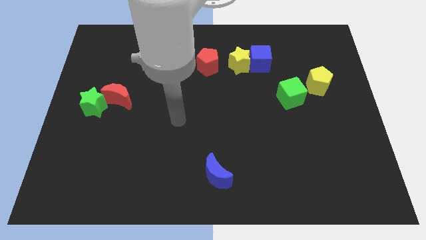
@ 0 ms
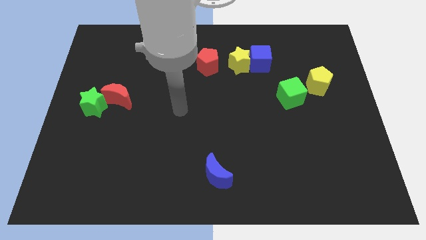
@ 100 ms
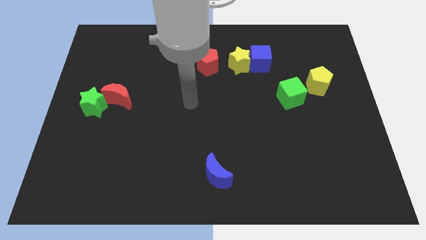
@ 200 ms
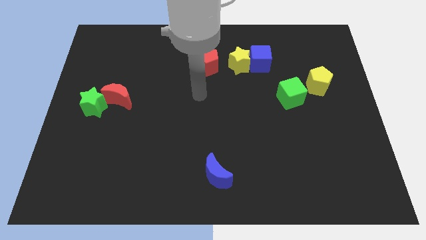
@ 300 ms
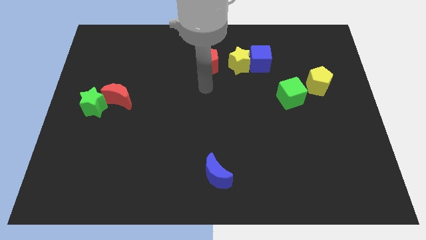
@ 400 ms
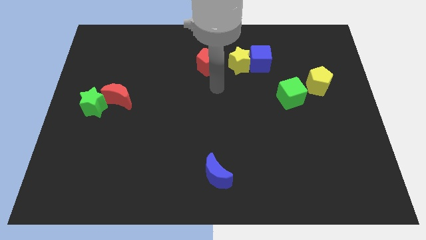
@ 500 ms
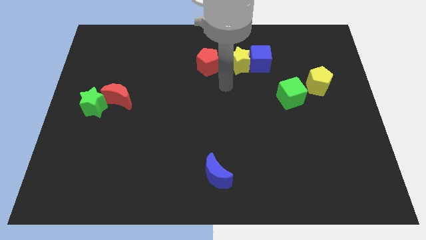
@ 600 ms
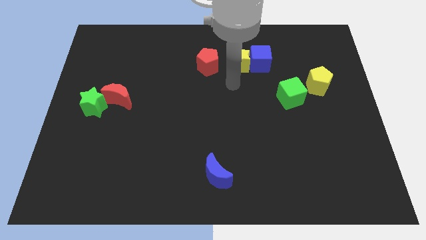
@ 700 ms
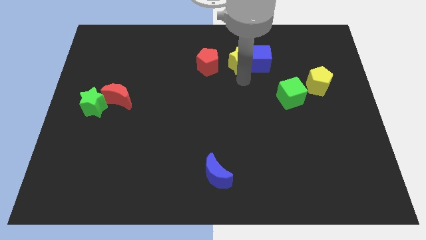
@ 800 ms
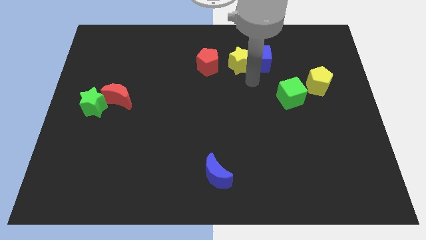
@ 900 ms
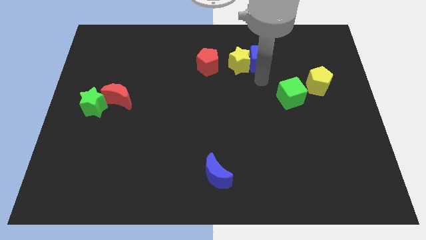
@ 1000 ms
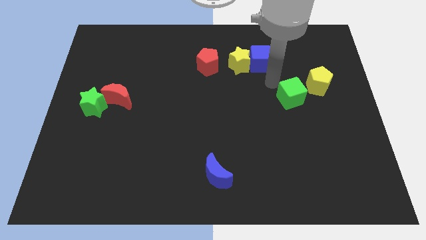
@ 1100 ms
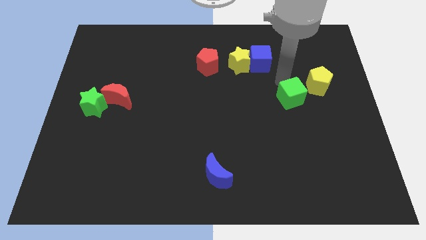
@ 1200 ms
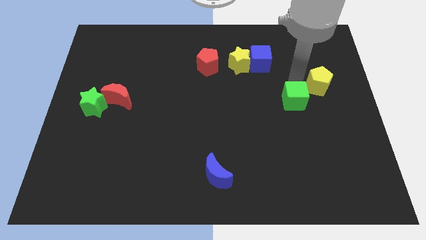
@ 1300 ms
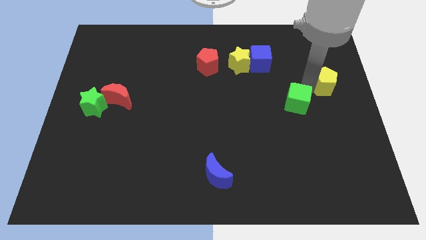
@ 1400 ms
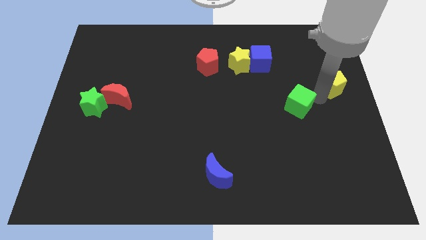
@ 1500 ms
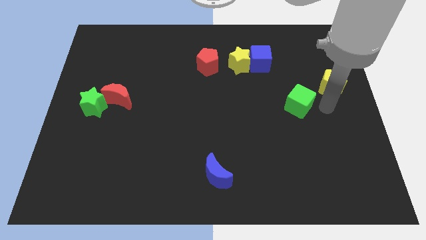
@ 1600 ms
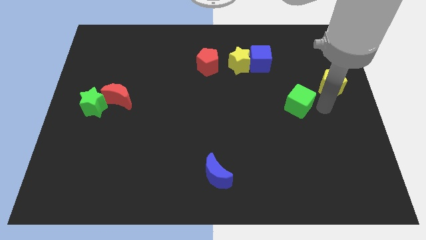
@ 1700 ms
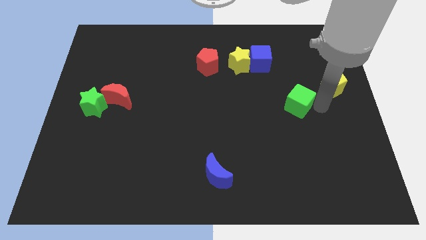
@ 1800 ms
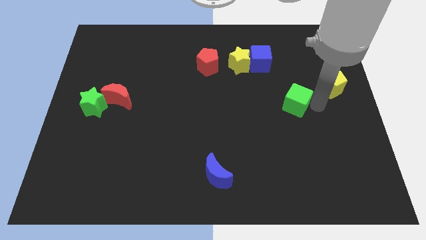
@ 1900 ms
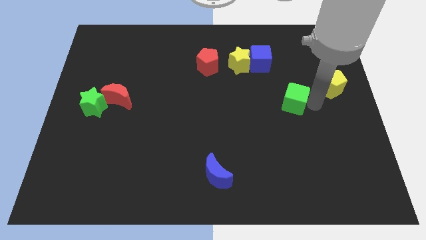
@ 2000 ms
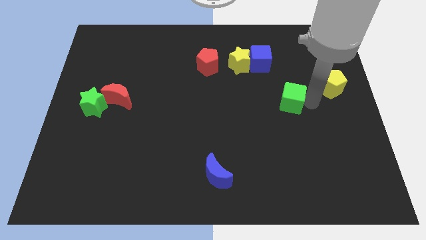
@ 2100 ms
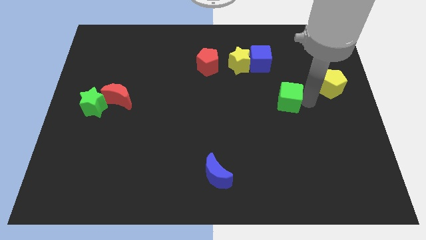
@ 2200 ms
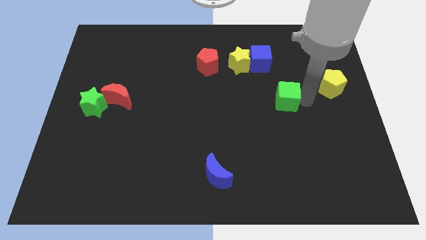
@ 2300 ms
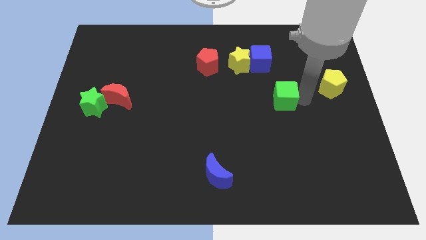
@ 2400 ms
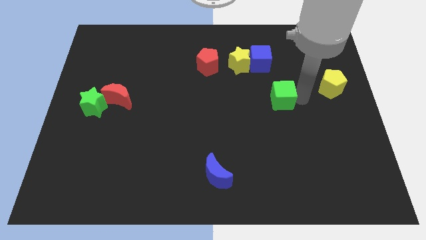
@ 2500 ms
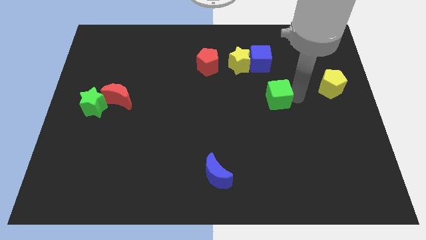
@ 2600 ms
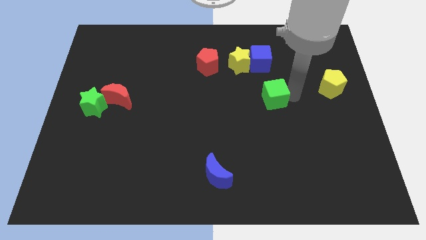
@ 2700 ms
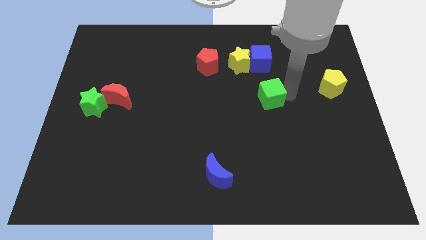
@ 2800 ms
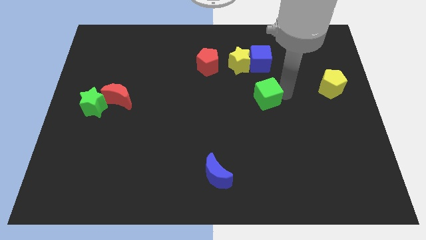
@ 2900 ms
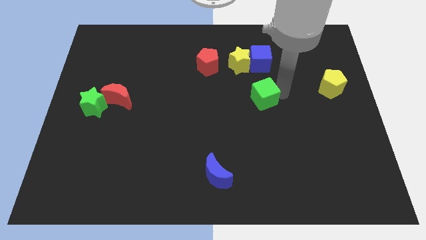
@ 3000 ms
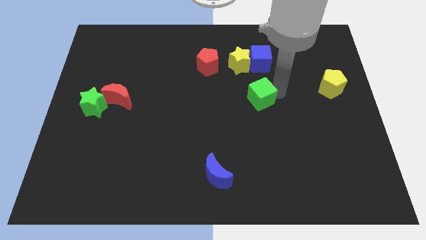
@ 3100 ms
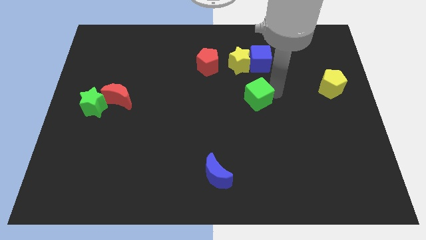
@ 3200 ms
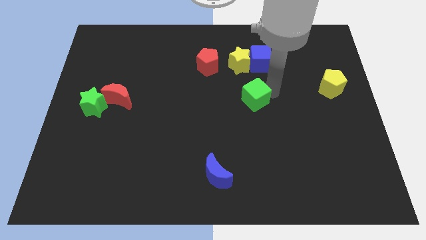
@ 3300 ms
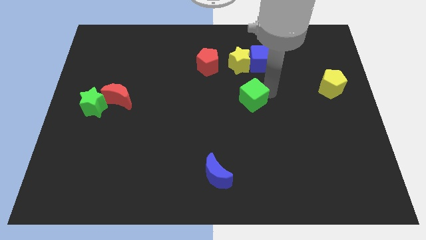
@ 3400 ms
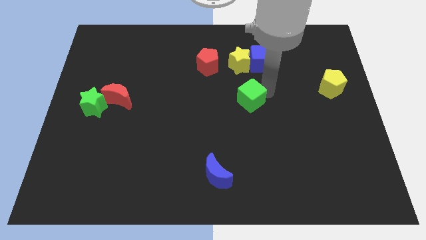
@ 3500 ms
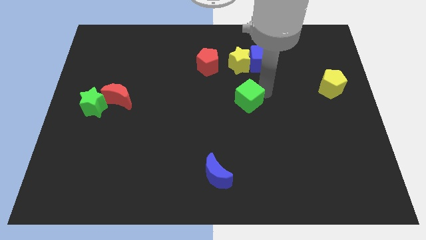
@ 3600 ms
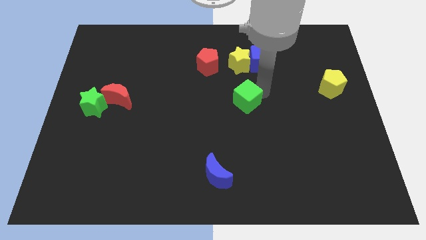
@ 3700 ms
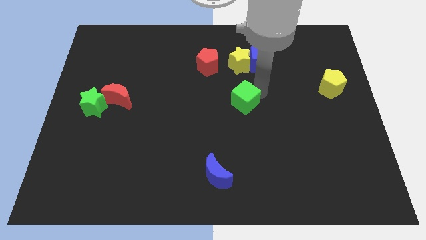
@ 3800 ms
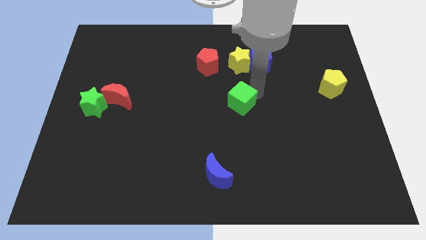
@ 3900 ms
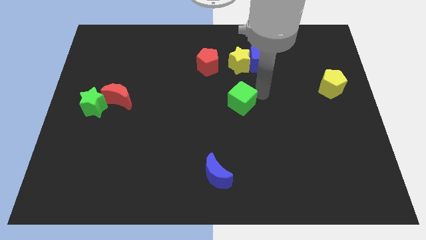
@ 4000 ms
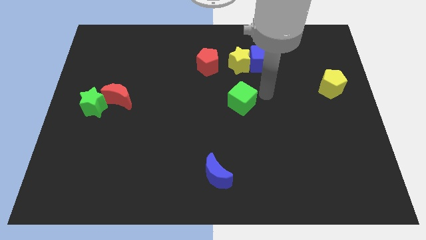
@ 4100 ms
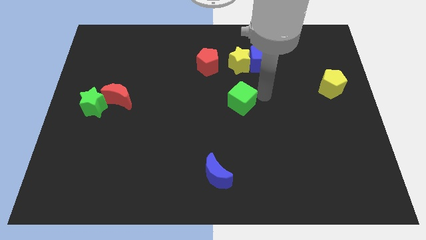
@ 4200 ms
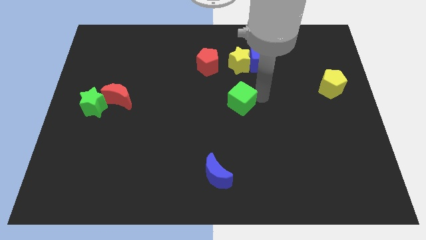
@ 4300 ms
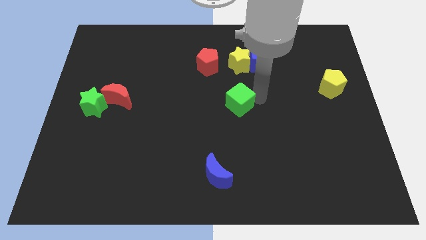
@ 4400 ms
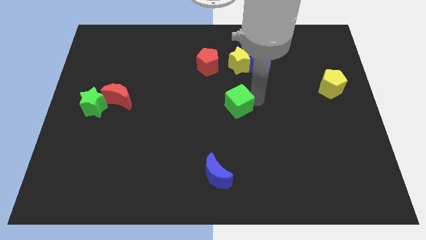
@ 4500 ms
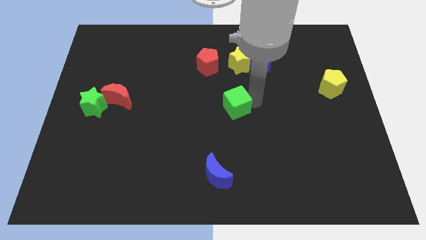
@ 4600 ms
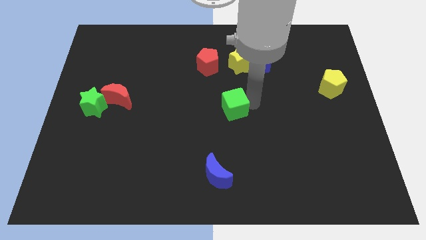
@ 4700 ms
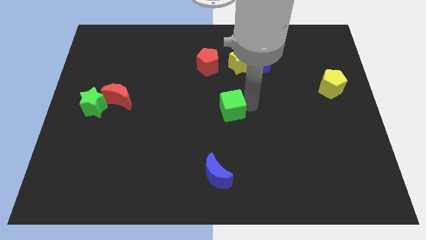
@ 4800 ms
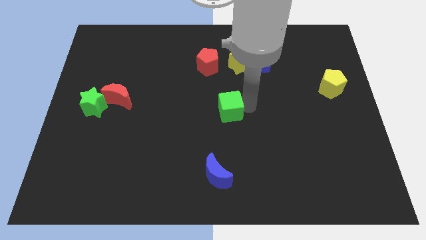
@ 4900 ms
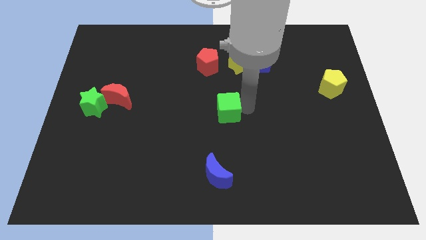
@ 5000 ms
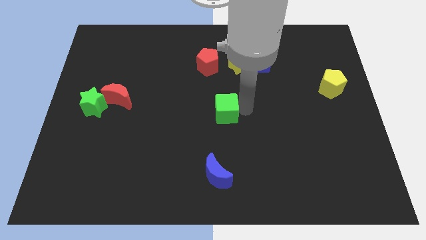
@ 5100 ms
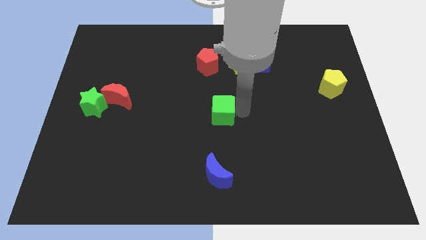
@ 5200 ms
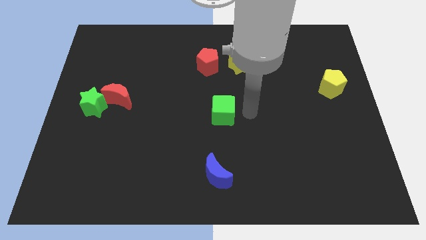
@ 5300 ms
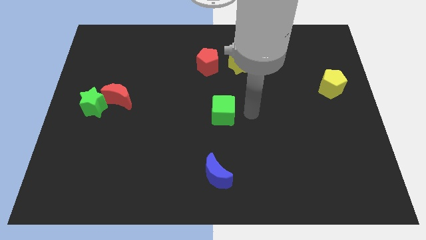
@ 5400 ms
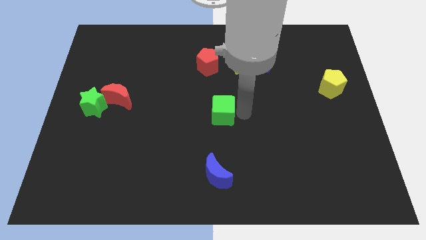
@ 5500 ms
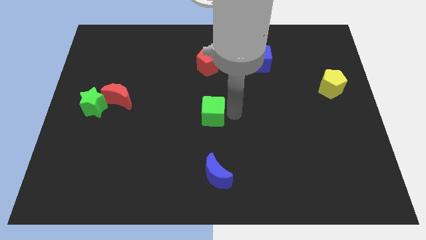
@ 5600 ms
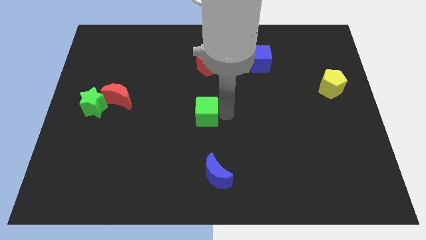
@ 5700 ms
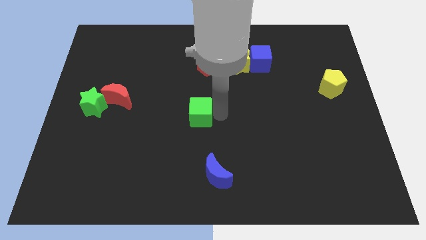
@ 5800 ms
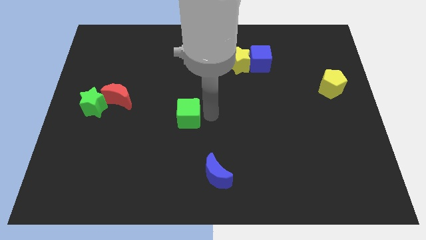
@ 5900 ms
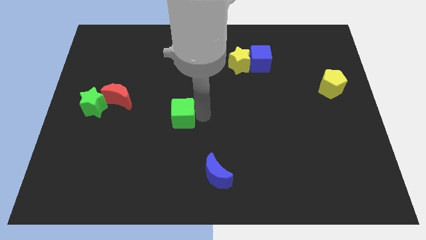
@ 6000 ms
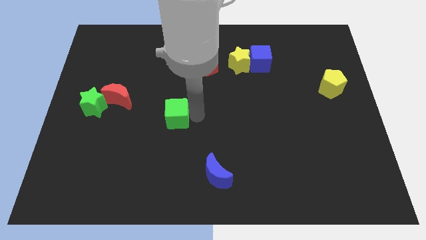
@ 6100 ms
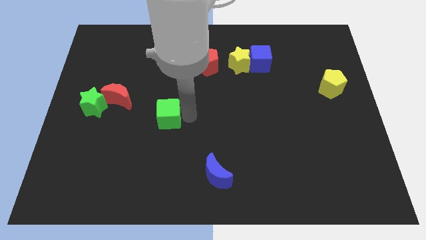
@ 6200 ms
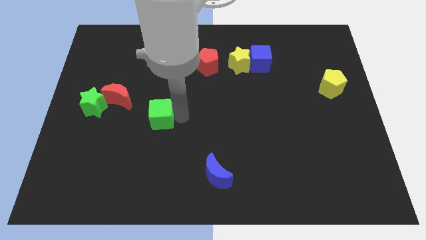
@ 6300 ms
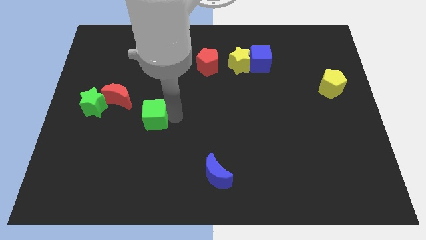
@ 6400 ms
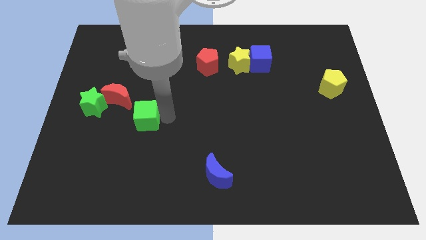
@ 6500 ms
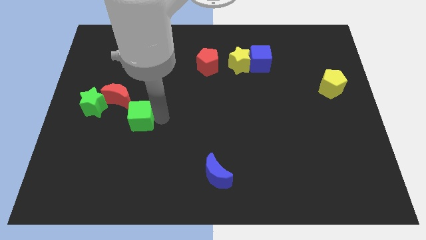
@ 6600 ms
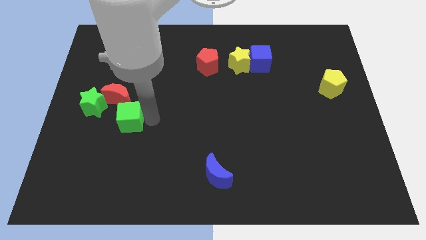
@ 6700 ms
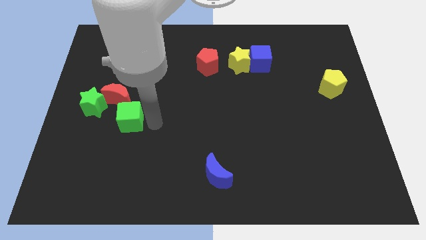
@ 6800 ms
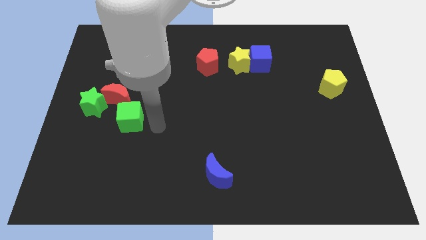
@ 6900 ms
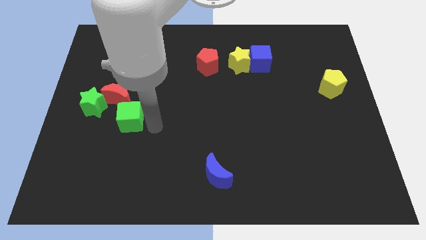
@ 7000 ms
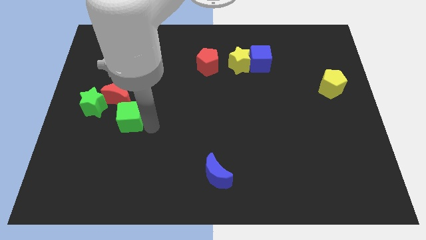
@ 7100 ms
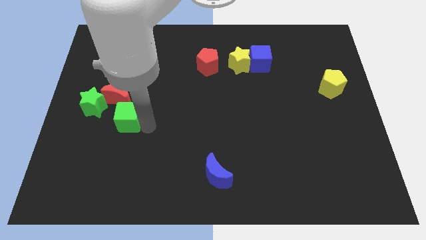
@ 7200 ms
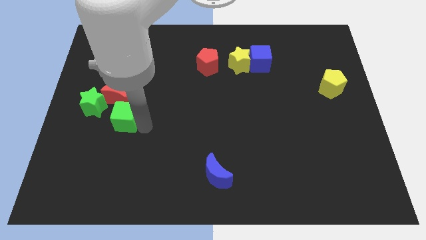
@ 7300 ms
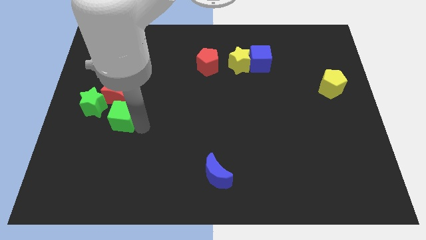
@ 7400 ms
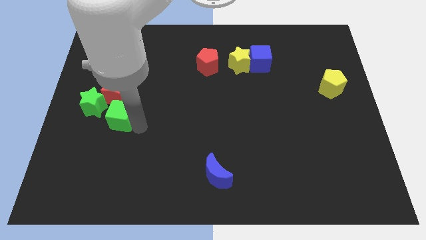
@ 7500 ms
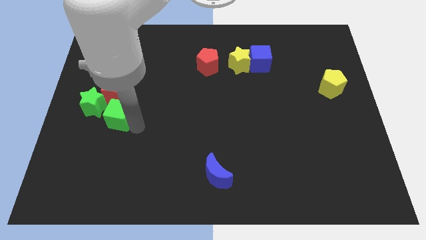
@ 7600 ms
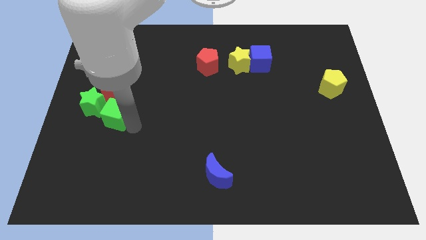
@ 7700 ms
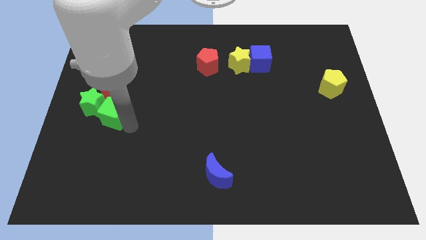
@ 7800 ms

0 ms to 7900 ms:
put the green cube close to the green star
